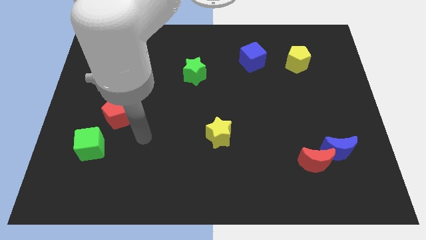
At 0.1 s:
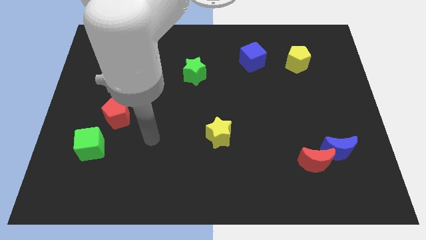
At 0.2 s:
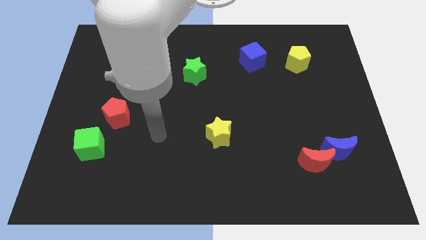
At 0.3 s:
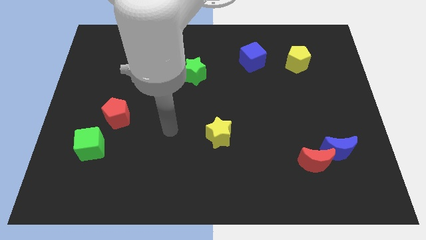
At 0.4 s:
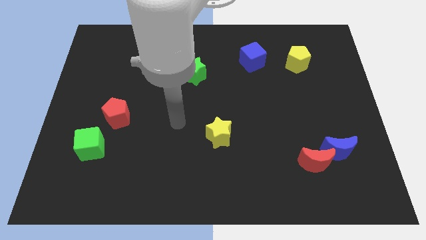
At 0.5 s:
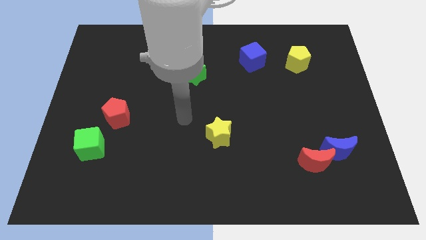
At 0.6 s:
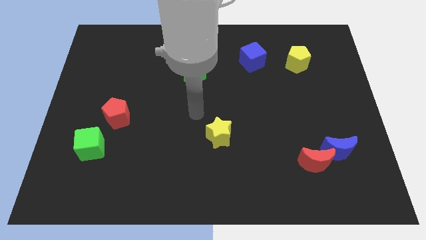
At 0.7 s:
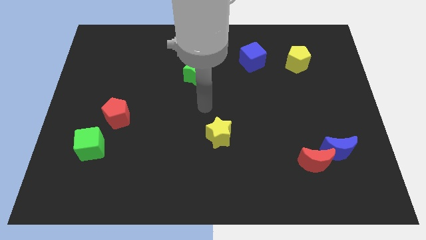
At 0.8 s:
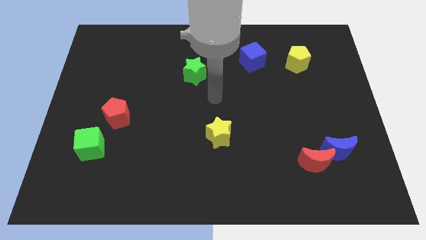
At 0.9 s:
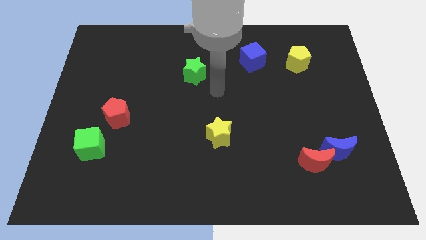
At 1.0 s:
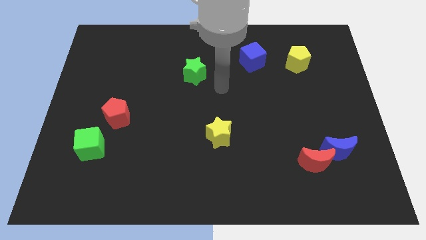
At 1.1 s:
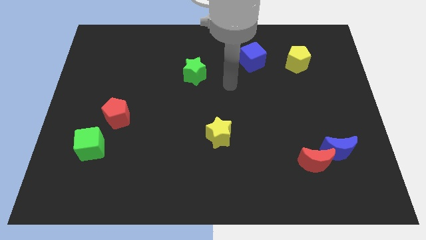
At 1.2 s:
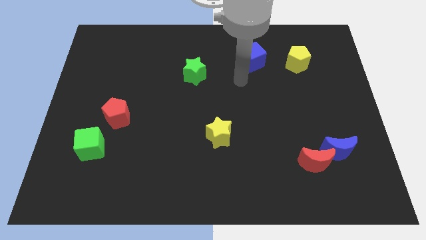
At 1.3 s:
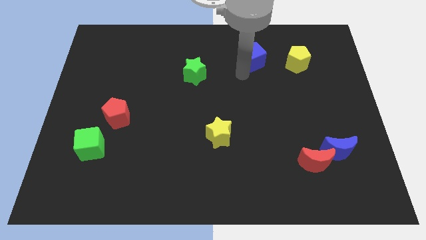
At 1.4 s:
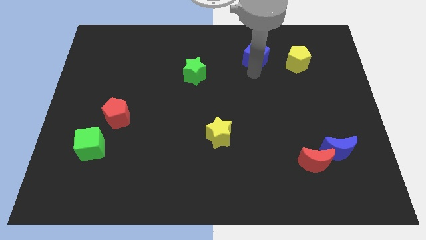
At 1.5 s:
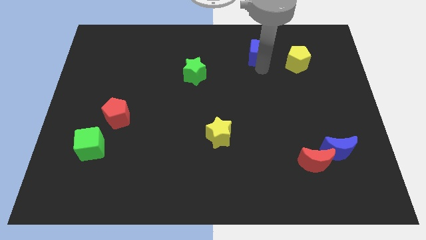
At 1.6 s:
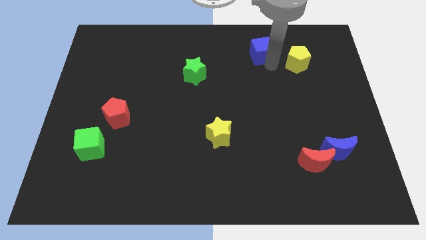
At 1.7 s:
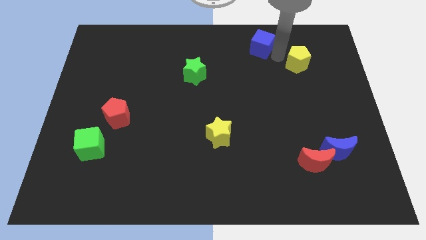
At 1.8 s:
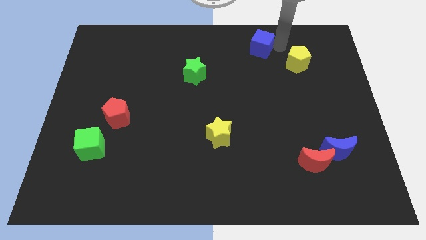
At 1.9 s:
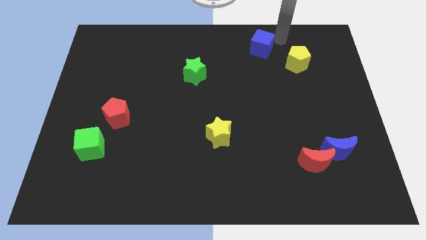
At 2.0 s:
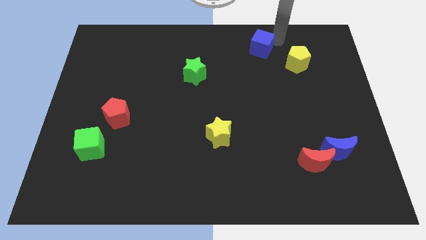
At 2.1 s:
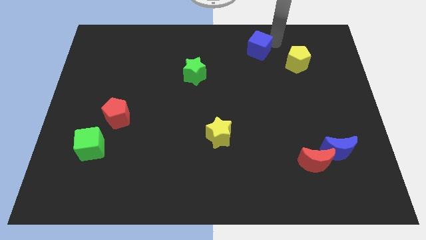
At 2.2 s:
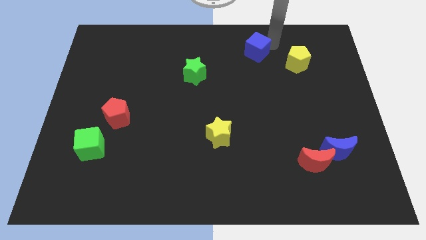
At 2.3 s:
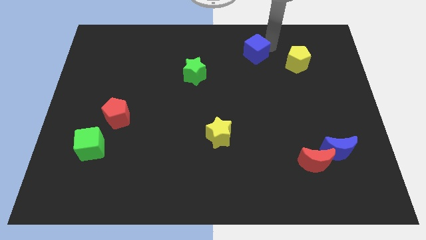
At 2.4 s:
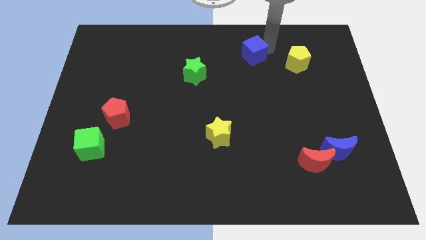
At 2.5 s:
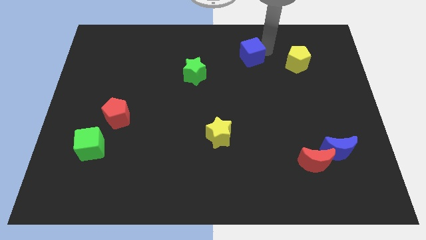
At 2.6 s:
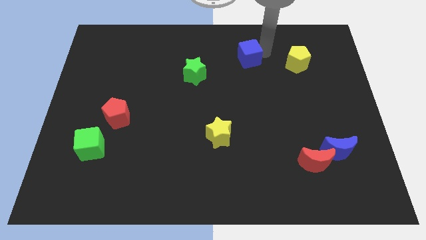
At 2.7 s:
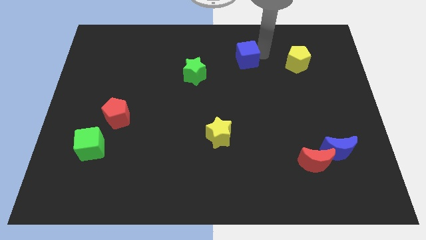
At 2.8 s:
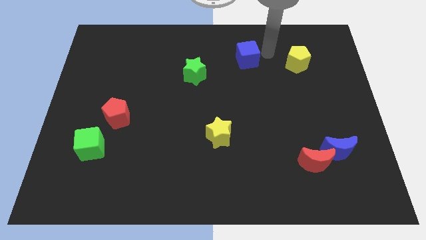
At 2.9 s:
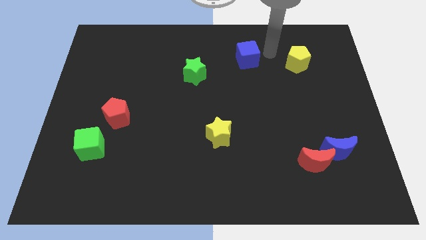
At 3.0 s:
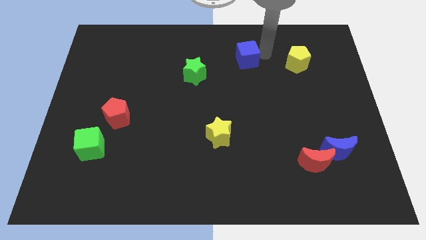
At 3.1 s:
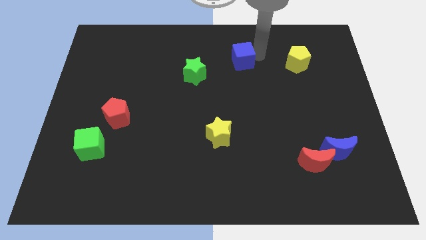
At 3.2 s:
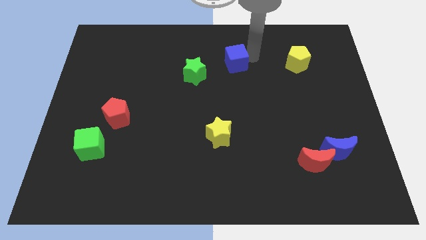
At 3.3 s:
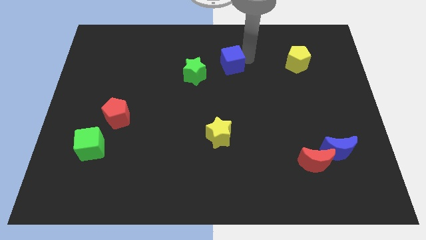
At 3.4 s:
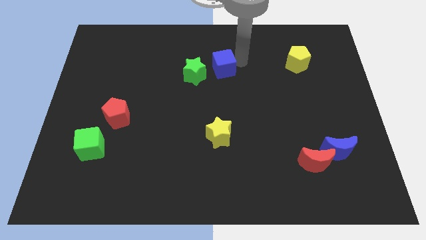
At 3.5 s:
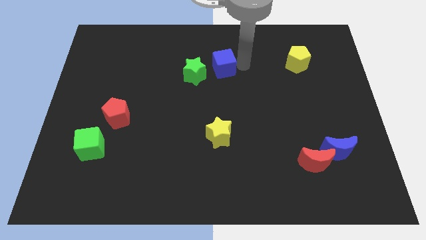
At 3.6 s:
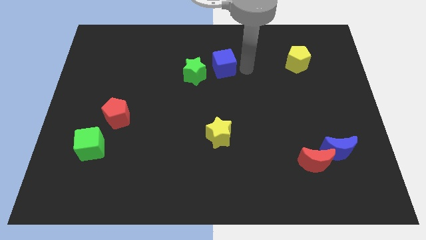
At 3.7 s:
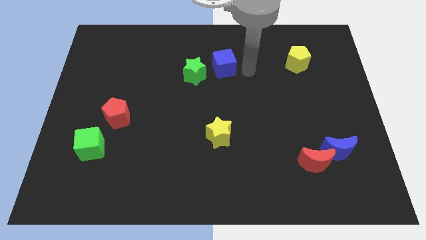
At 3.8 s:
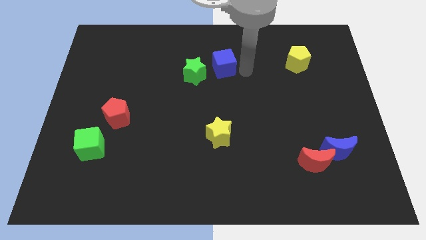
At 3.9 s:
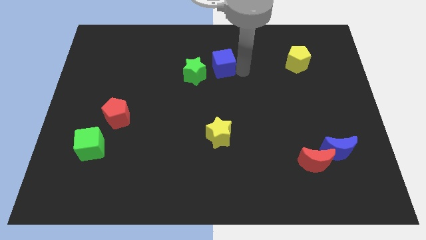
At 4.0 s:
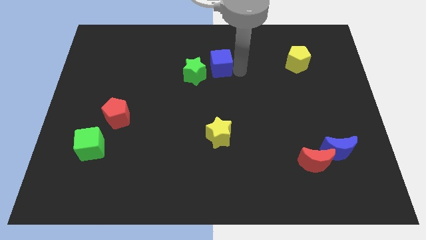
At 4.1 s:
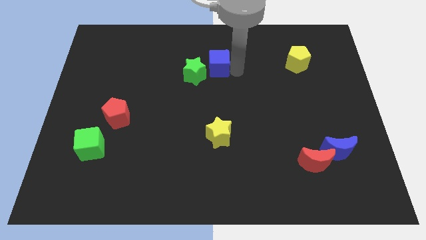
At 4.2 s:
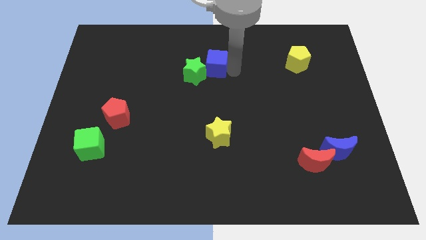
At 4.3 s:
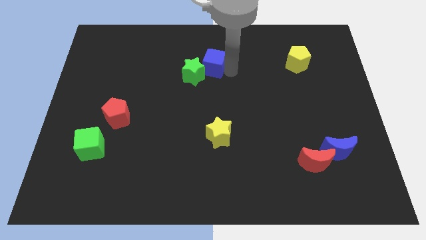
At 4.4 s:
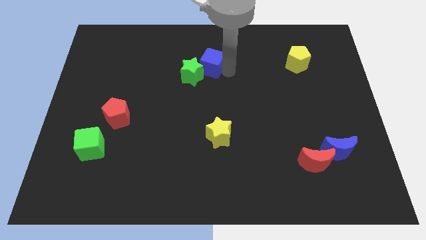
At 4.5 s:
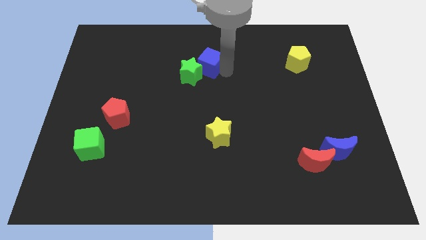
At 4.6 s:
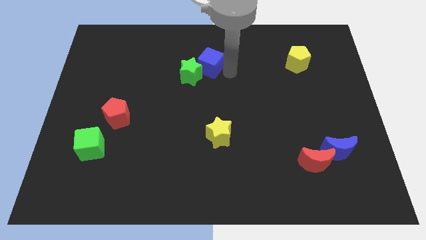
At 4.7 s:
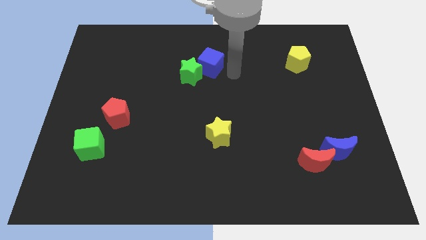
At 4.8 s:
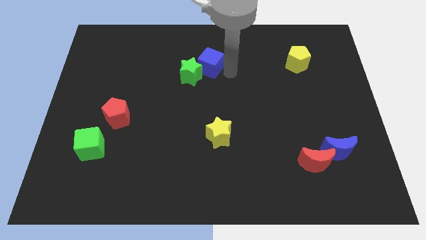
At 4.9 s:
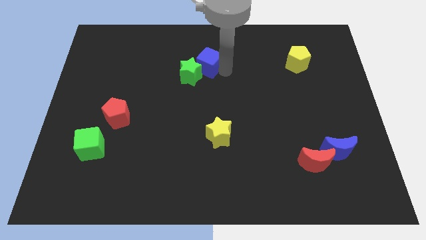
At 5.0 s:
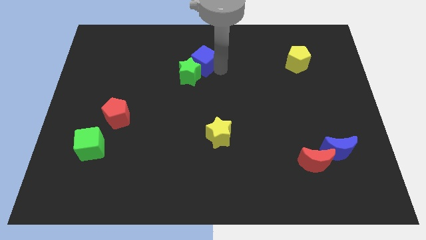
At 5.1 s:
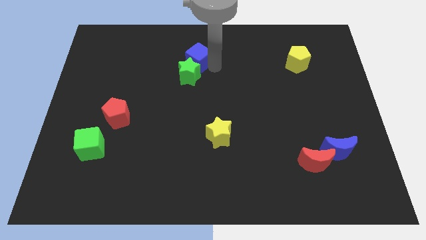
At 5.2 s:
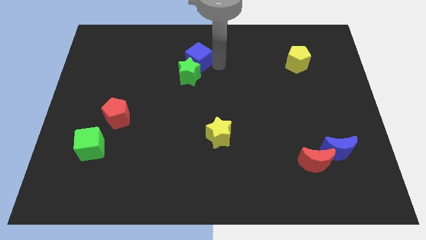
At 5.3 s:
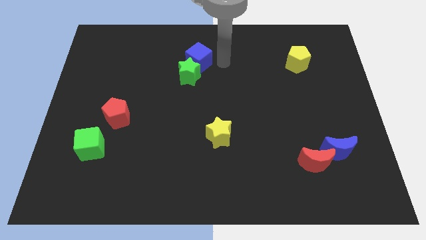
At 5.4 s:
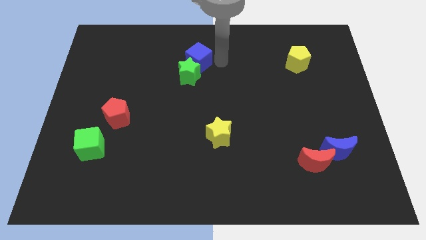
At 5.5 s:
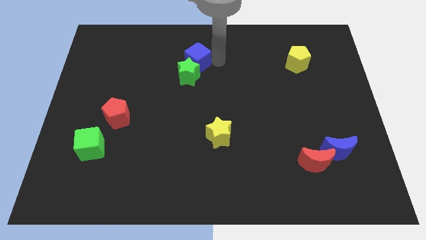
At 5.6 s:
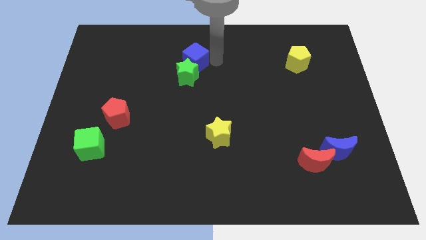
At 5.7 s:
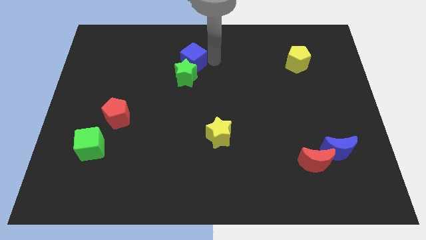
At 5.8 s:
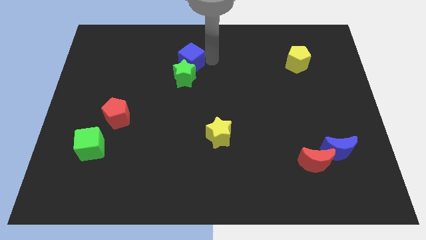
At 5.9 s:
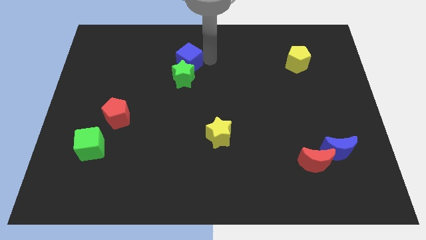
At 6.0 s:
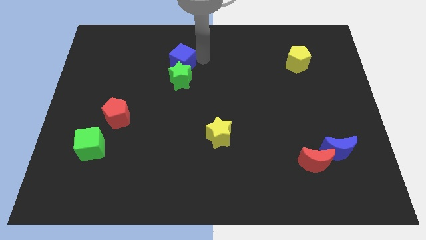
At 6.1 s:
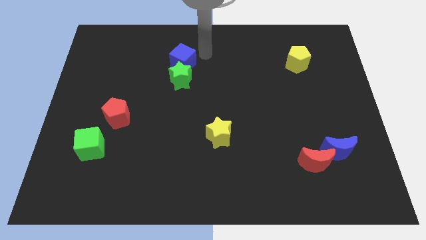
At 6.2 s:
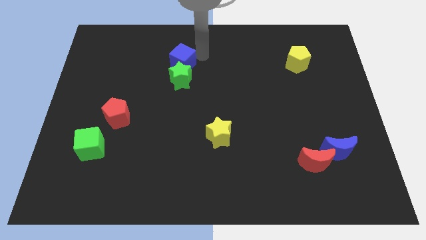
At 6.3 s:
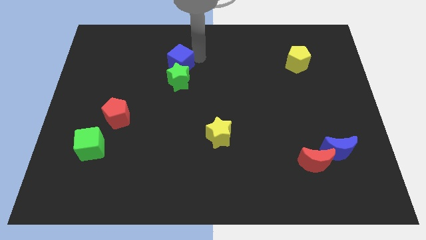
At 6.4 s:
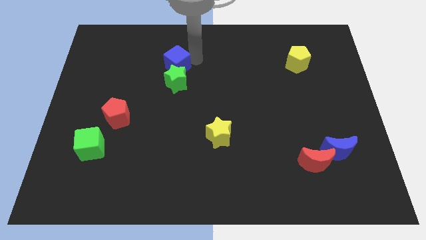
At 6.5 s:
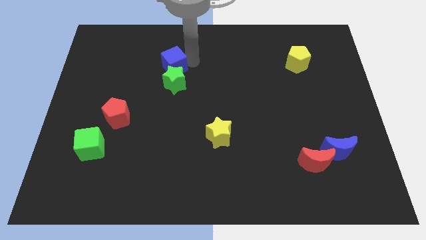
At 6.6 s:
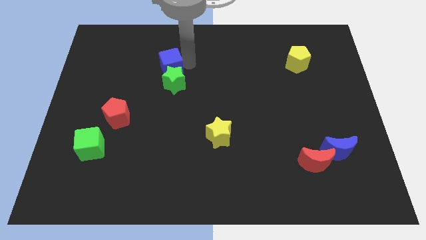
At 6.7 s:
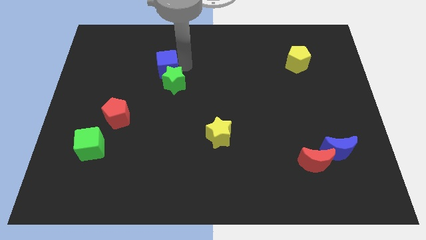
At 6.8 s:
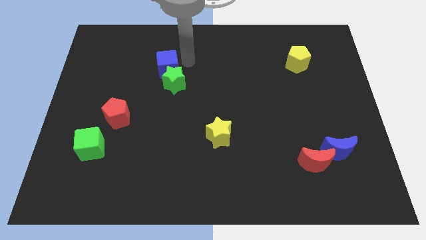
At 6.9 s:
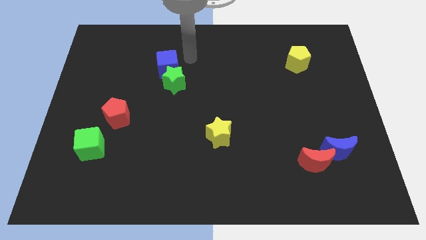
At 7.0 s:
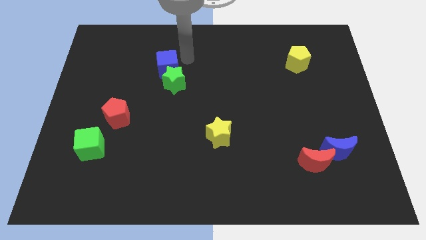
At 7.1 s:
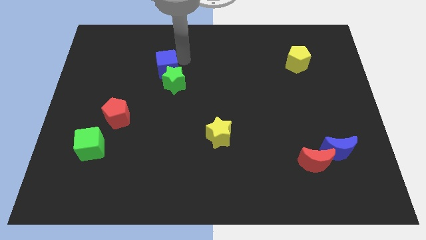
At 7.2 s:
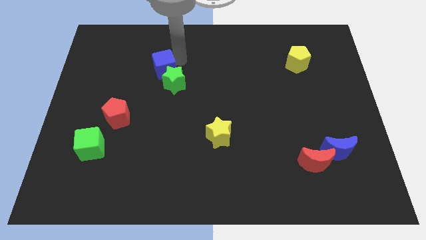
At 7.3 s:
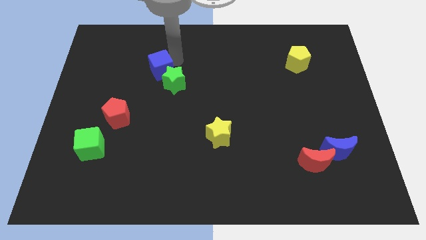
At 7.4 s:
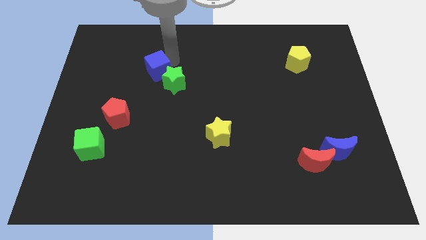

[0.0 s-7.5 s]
push the blue cube just left of the green star

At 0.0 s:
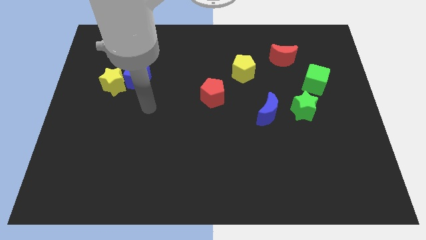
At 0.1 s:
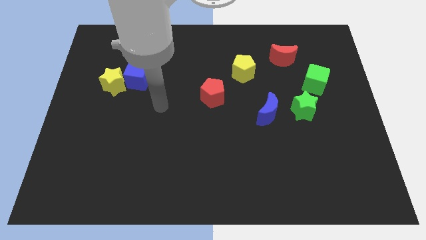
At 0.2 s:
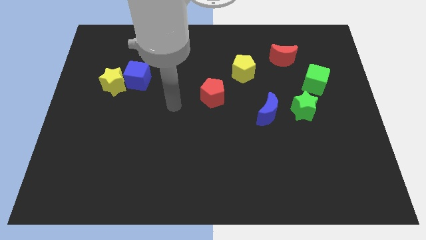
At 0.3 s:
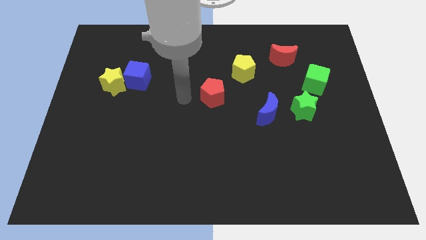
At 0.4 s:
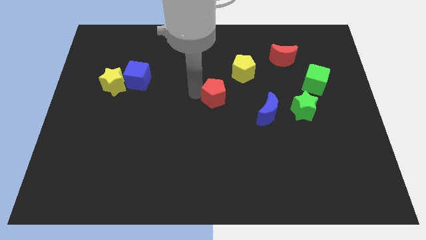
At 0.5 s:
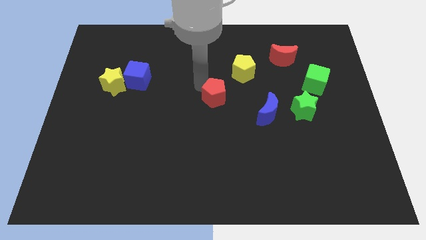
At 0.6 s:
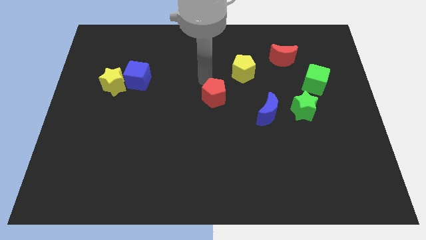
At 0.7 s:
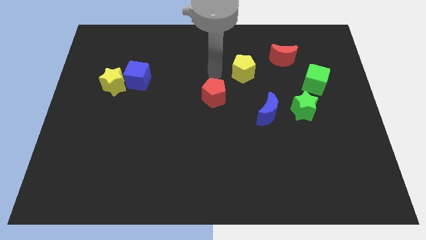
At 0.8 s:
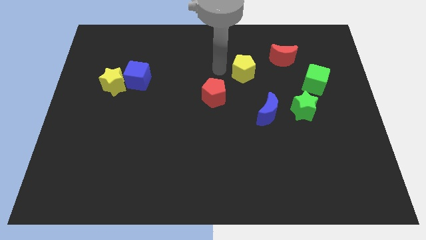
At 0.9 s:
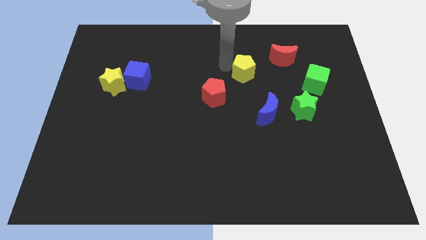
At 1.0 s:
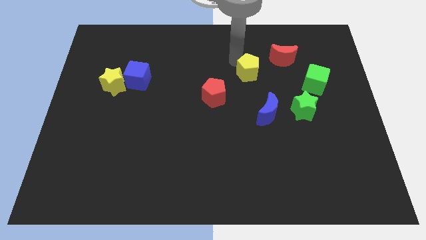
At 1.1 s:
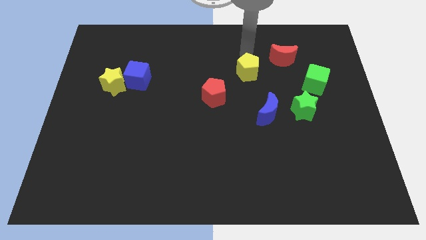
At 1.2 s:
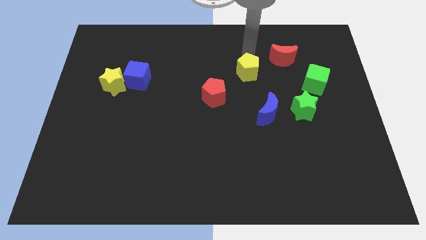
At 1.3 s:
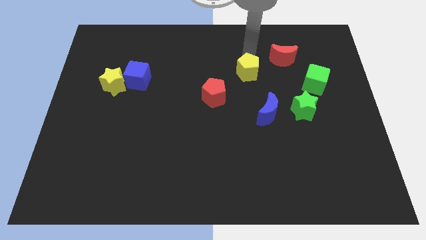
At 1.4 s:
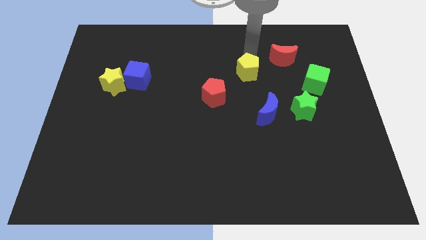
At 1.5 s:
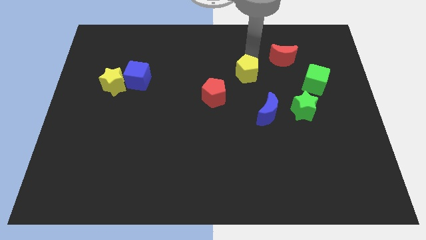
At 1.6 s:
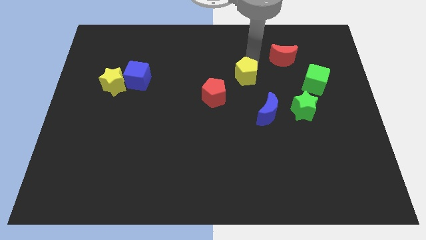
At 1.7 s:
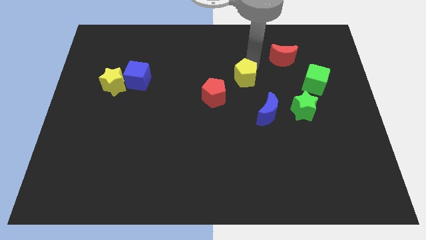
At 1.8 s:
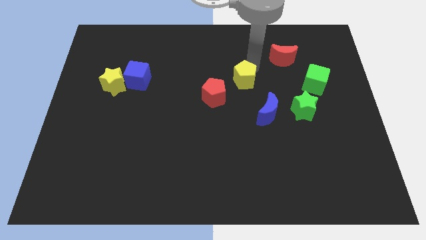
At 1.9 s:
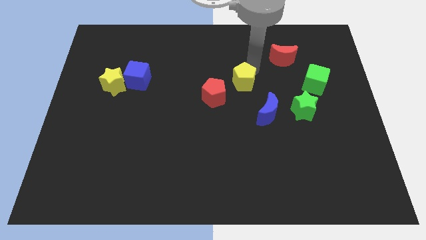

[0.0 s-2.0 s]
slide the yellow pentagon to the top left side of the blue moon
